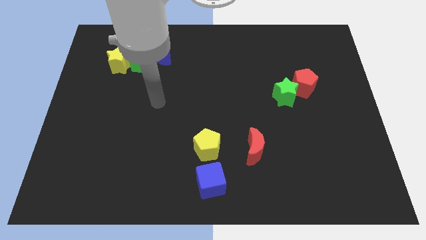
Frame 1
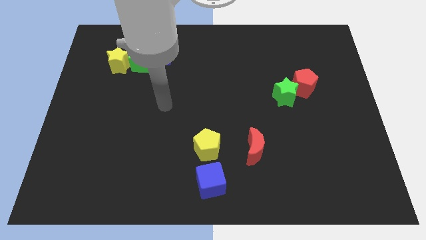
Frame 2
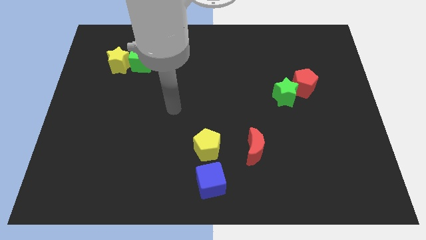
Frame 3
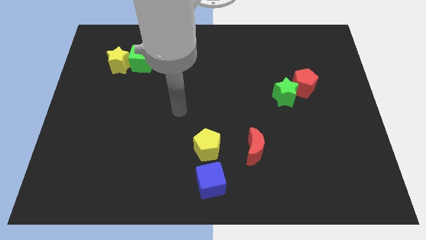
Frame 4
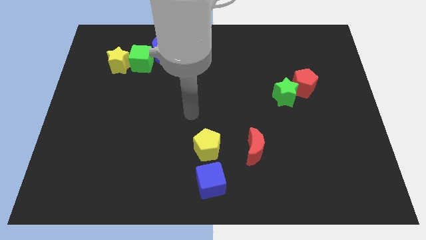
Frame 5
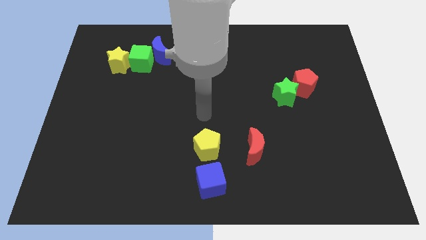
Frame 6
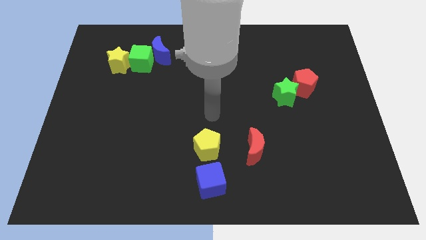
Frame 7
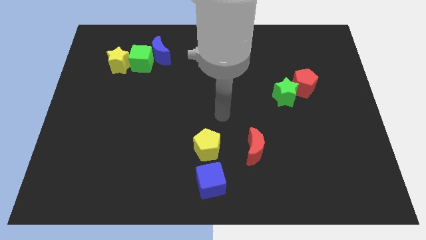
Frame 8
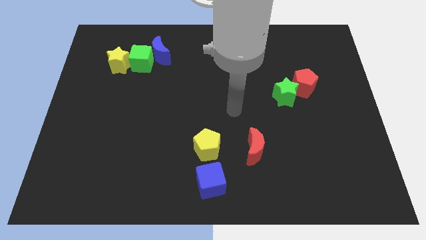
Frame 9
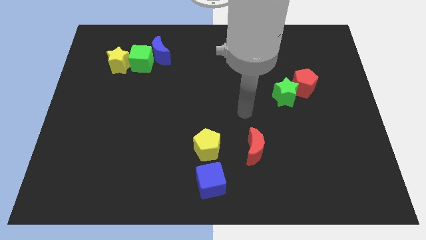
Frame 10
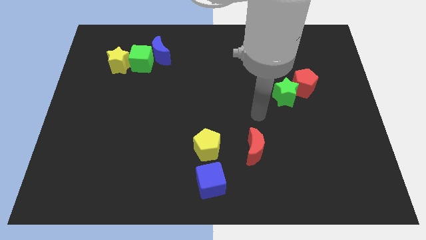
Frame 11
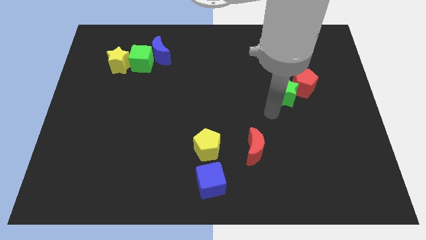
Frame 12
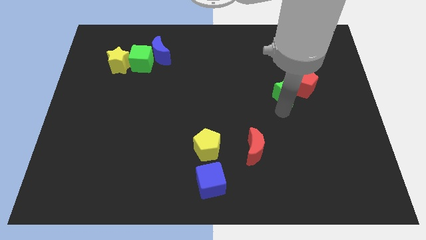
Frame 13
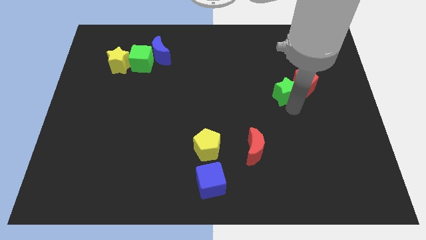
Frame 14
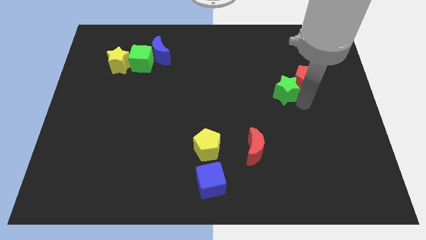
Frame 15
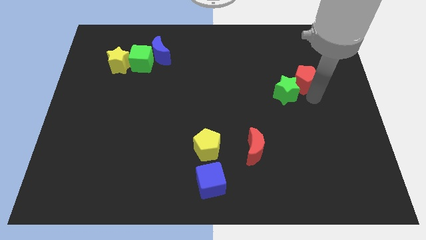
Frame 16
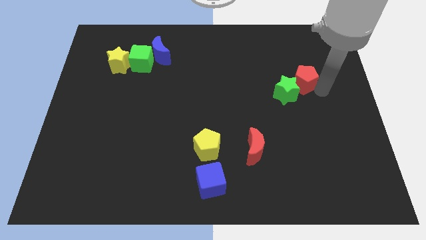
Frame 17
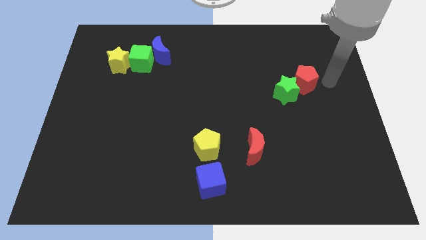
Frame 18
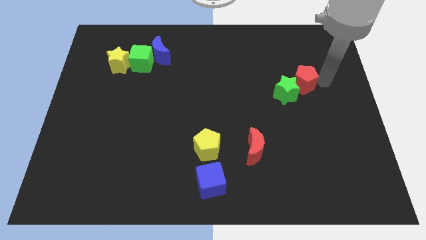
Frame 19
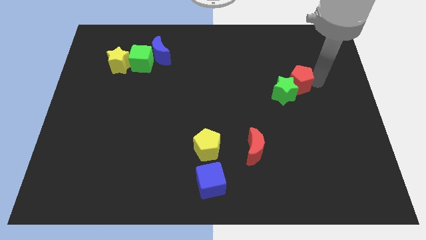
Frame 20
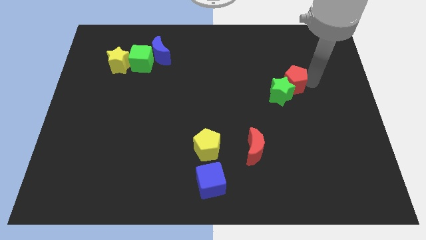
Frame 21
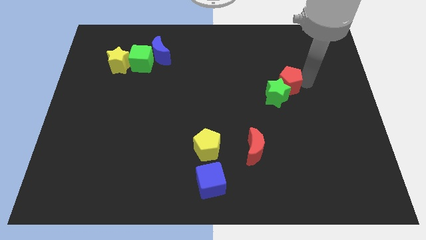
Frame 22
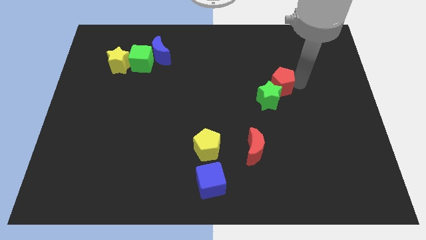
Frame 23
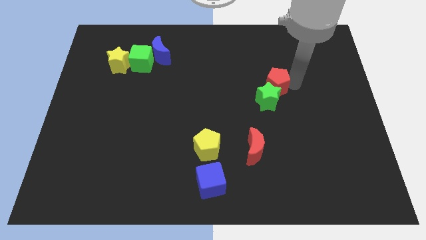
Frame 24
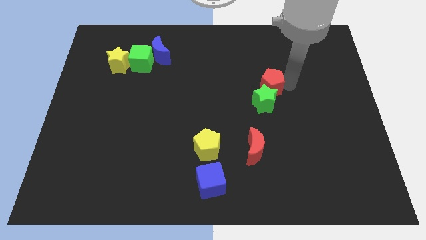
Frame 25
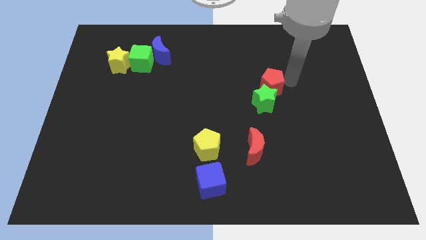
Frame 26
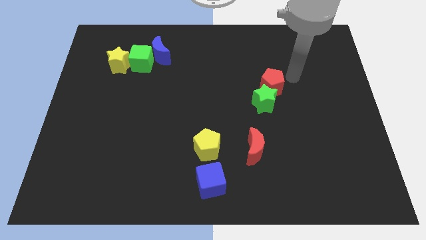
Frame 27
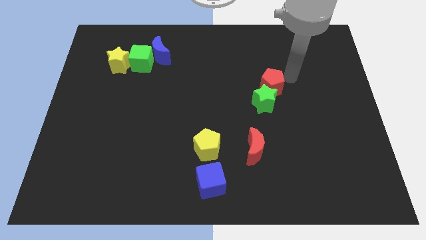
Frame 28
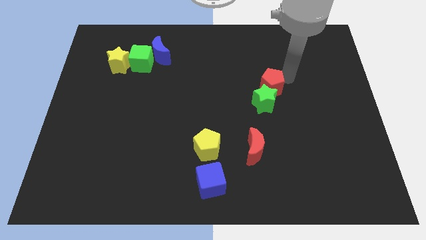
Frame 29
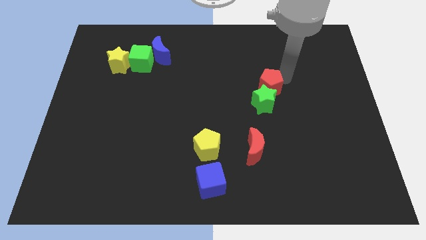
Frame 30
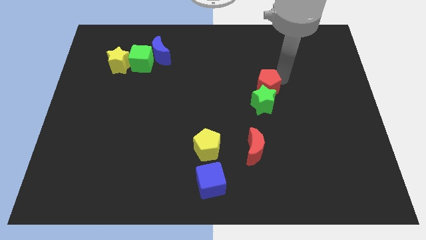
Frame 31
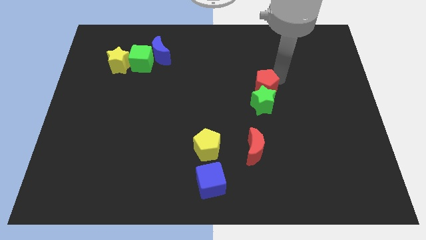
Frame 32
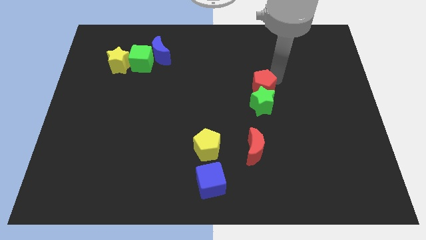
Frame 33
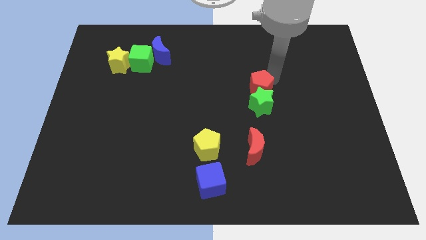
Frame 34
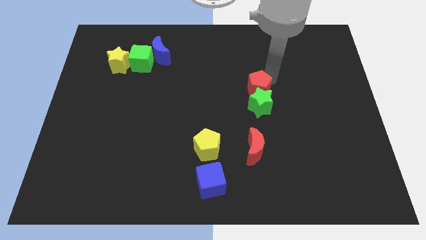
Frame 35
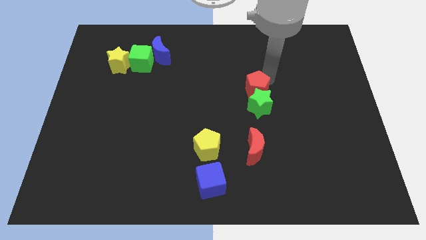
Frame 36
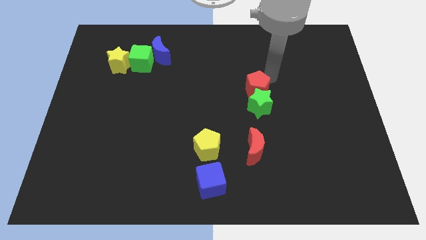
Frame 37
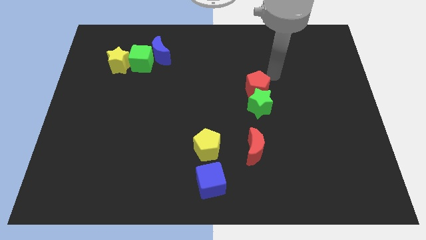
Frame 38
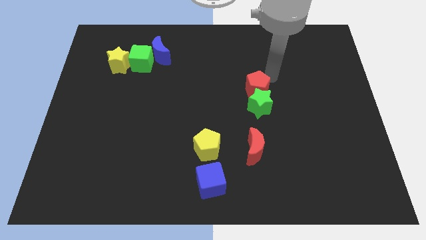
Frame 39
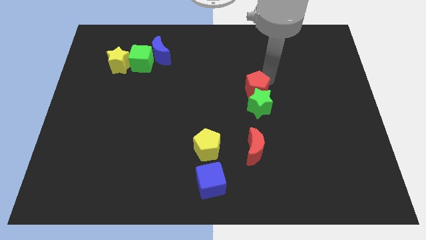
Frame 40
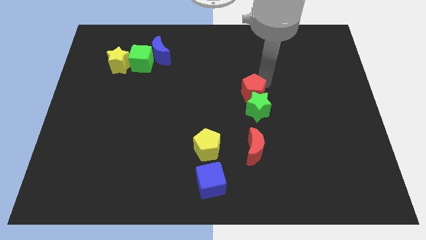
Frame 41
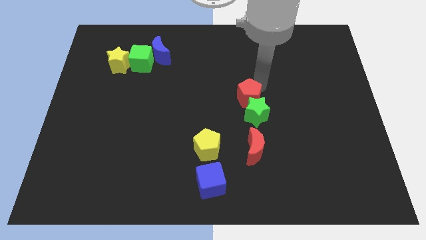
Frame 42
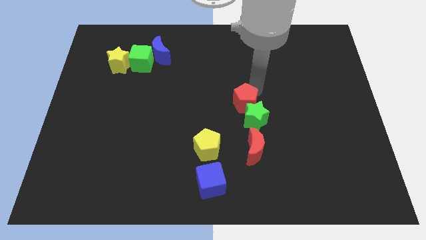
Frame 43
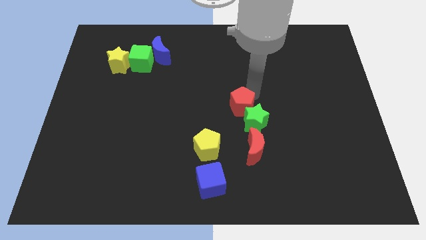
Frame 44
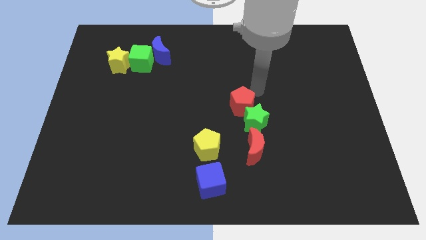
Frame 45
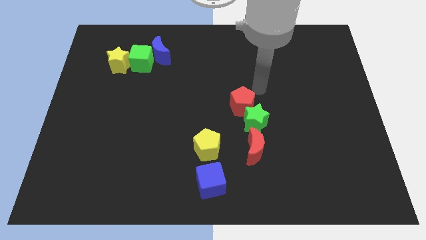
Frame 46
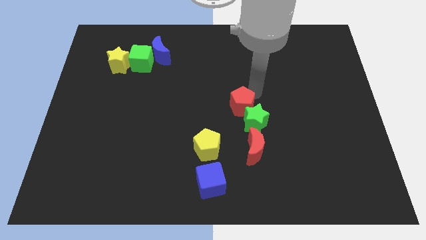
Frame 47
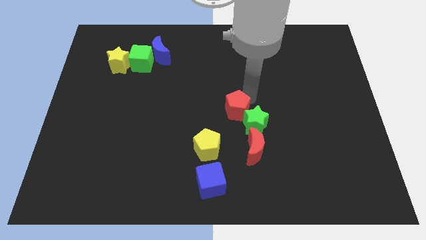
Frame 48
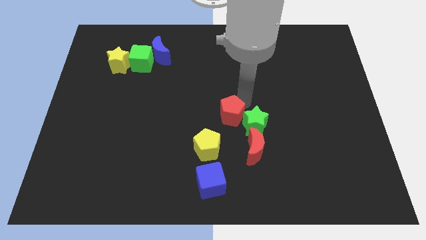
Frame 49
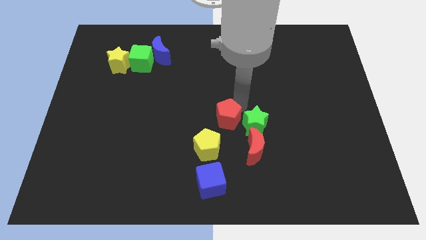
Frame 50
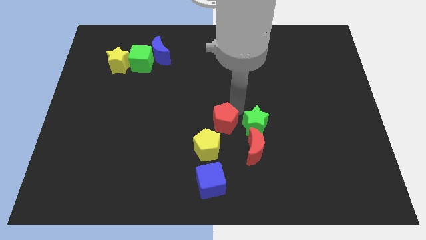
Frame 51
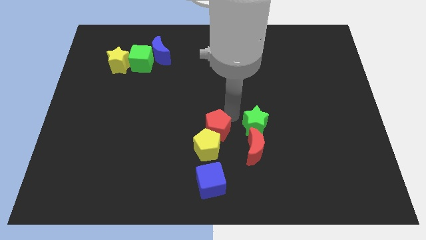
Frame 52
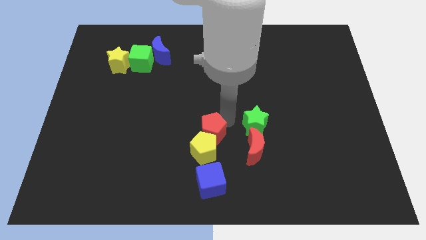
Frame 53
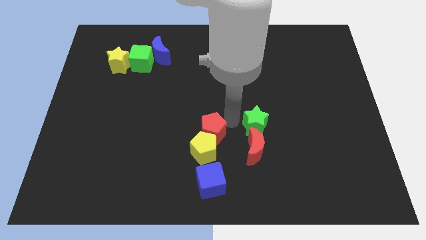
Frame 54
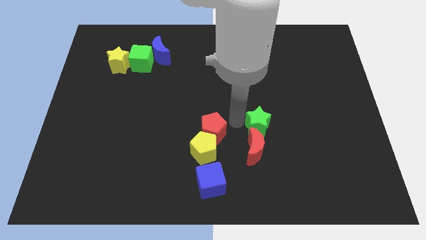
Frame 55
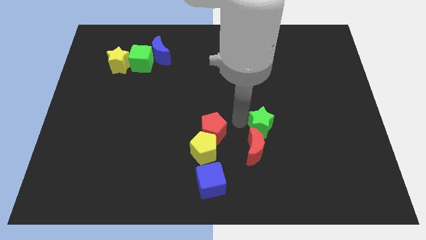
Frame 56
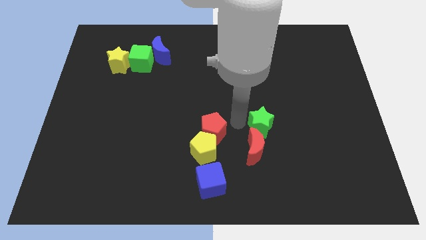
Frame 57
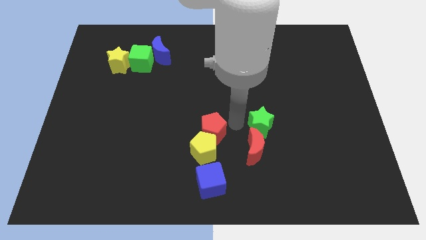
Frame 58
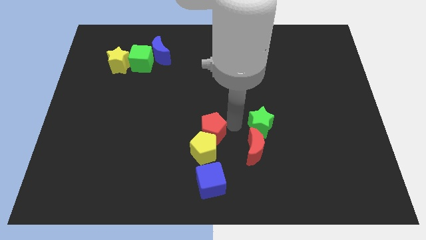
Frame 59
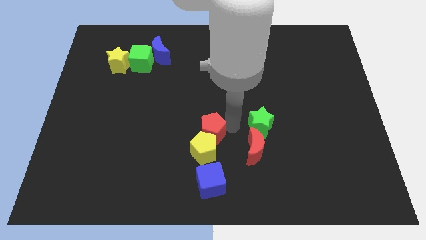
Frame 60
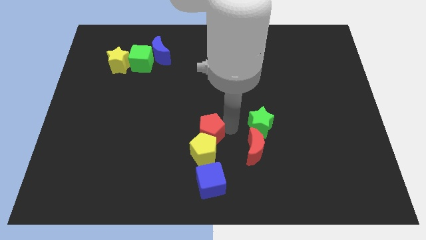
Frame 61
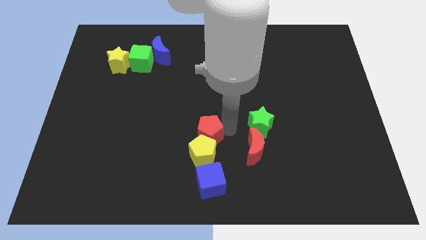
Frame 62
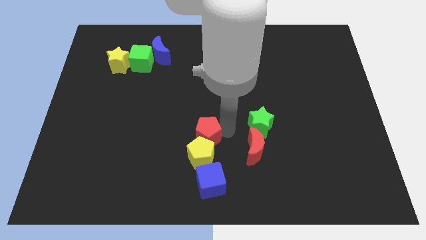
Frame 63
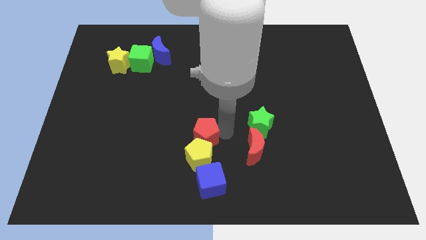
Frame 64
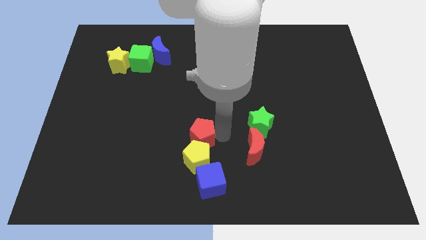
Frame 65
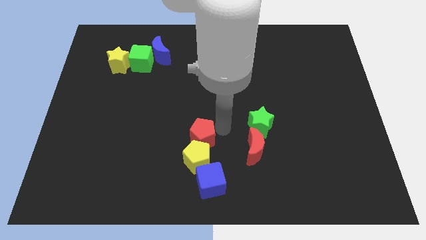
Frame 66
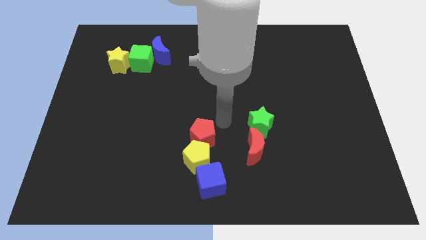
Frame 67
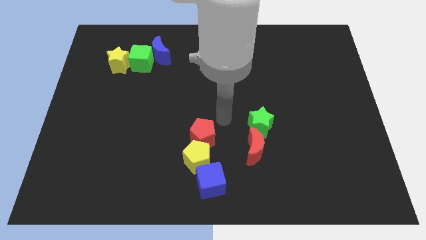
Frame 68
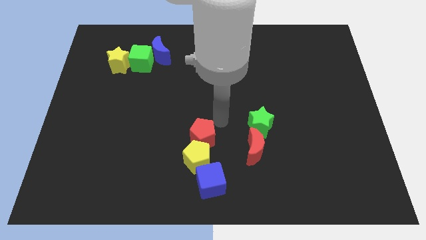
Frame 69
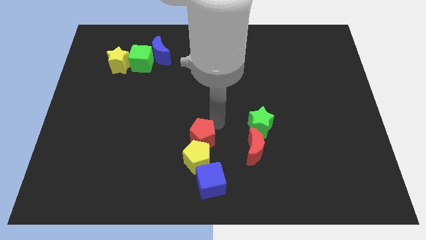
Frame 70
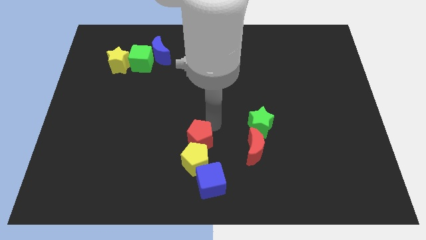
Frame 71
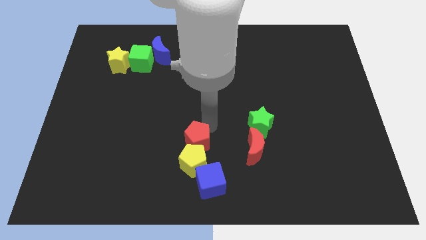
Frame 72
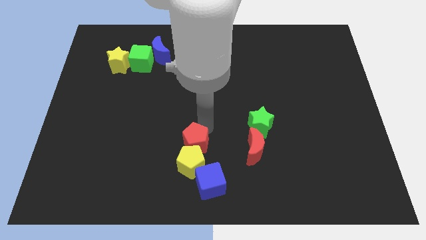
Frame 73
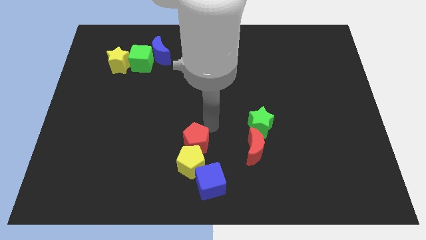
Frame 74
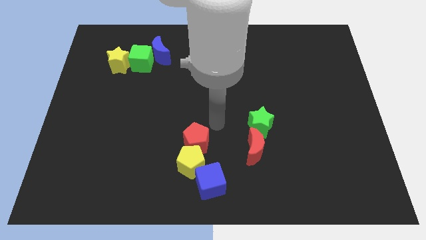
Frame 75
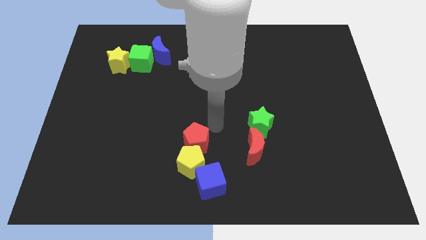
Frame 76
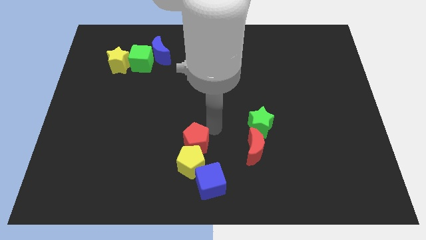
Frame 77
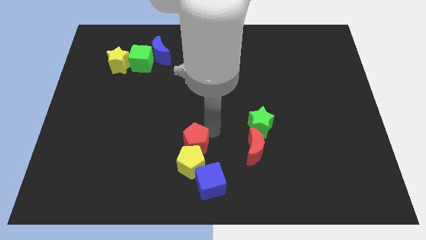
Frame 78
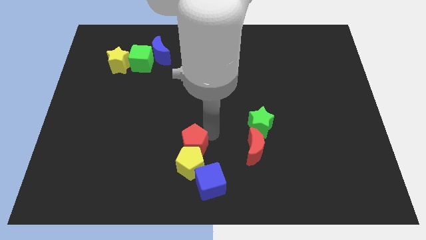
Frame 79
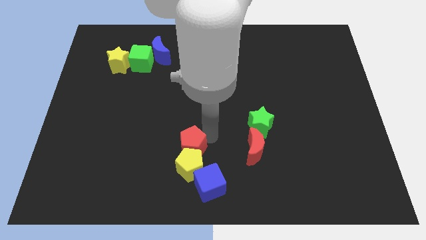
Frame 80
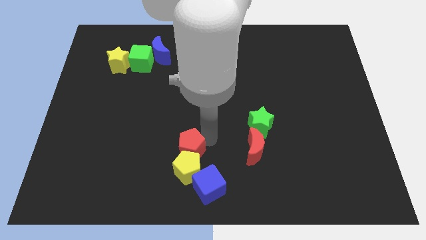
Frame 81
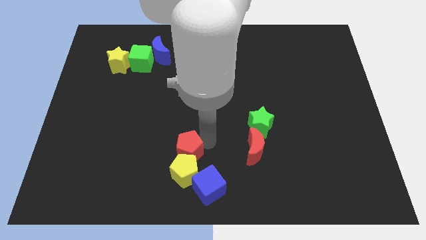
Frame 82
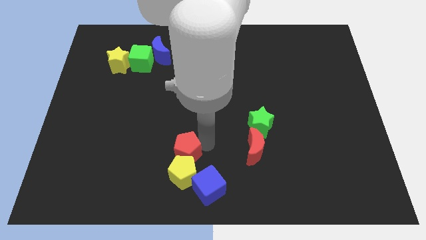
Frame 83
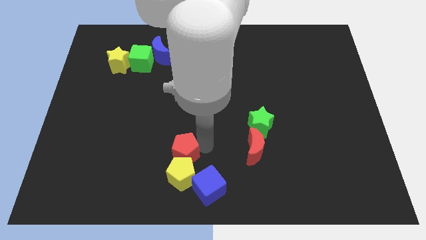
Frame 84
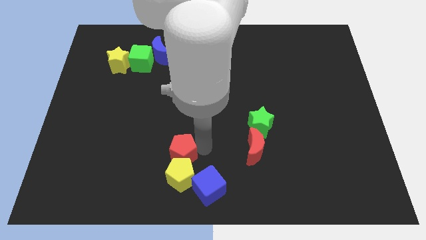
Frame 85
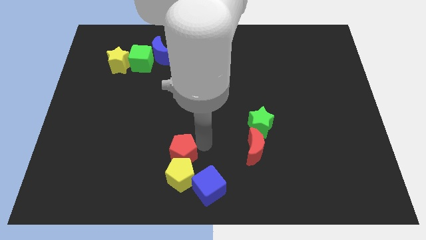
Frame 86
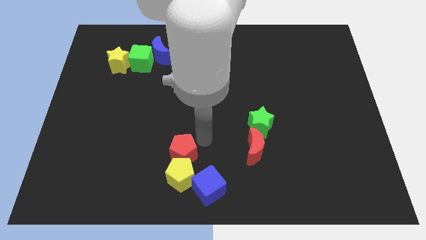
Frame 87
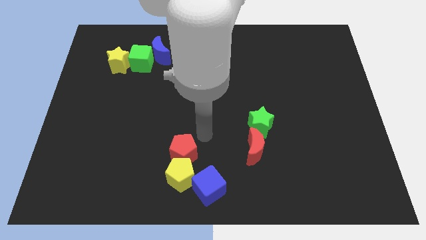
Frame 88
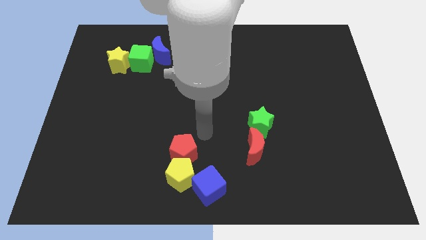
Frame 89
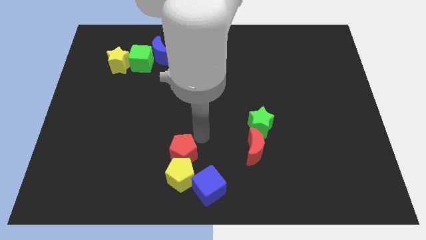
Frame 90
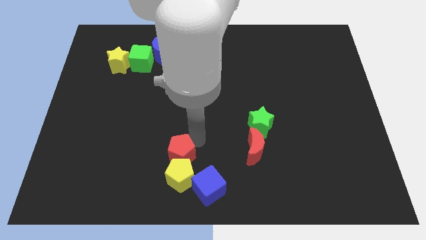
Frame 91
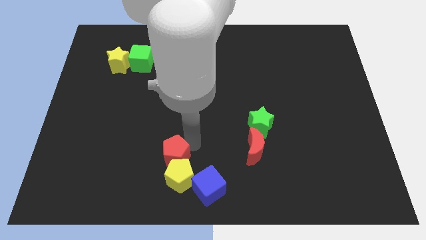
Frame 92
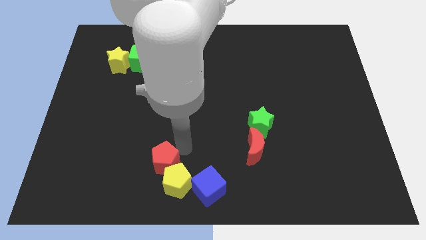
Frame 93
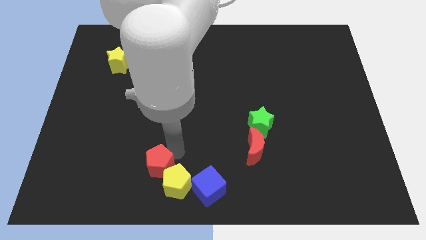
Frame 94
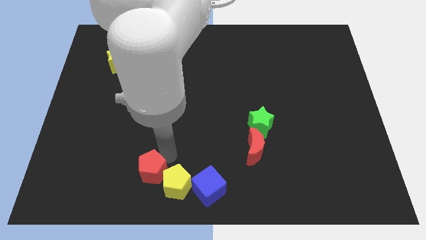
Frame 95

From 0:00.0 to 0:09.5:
slide the red pentagon just left of the blue cube
